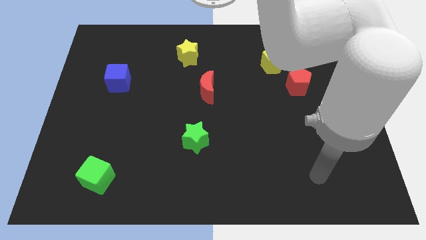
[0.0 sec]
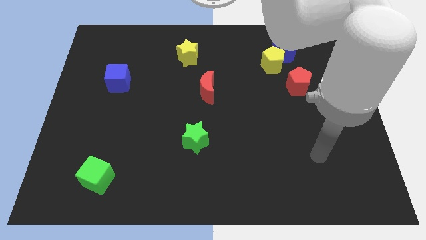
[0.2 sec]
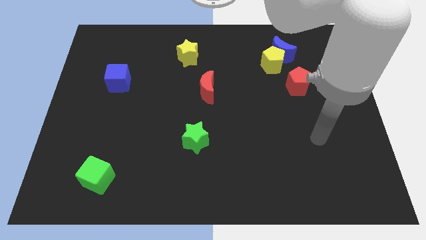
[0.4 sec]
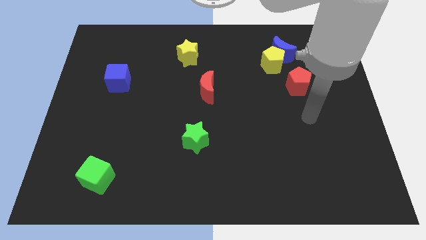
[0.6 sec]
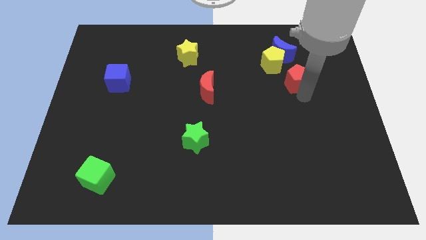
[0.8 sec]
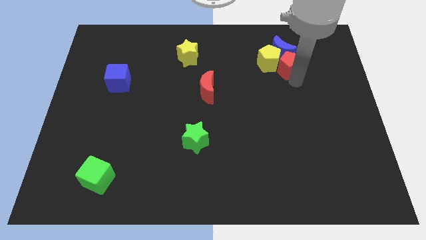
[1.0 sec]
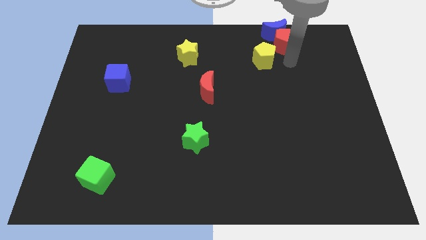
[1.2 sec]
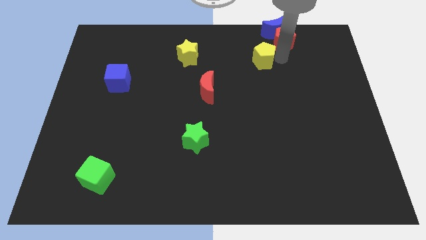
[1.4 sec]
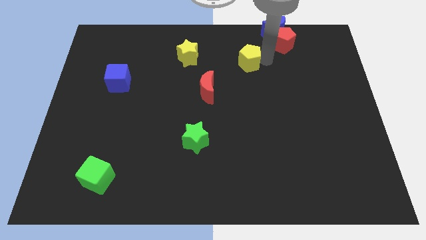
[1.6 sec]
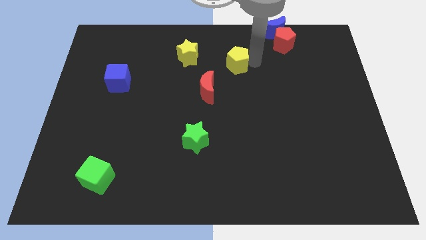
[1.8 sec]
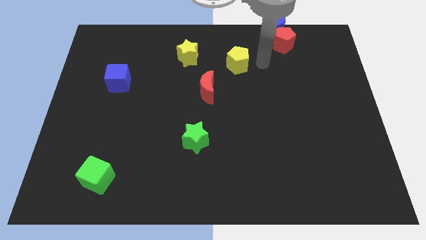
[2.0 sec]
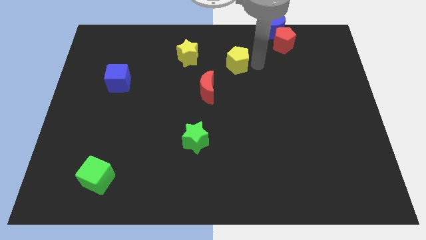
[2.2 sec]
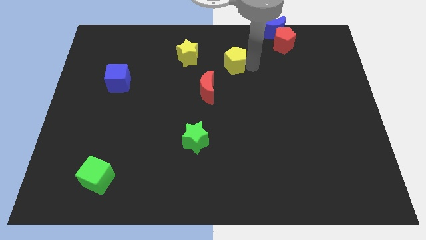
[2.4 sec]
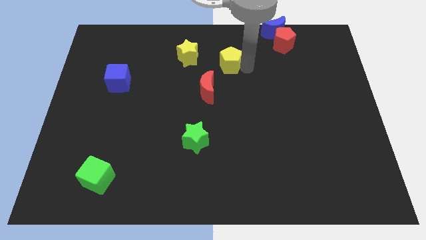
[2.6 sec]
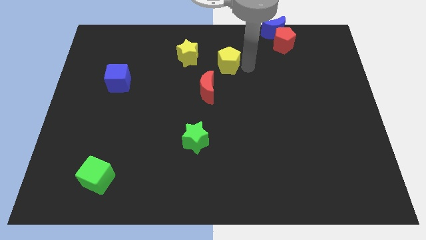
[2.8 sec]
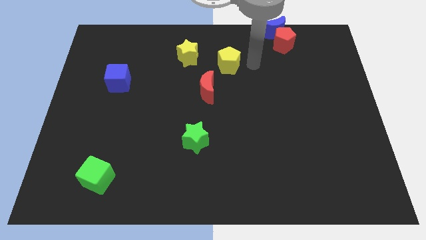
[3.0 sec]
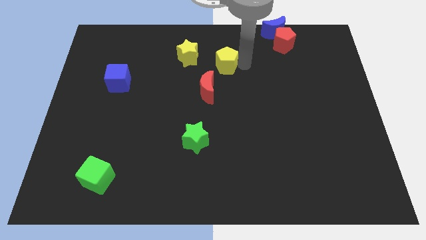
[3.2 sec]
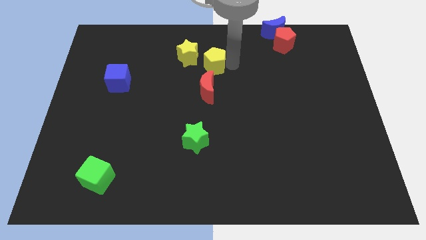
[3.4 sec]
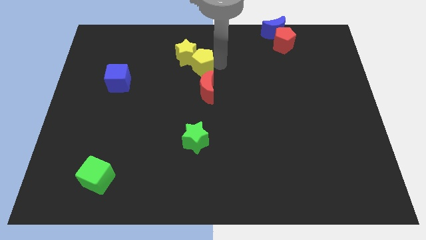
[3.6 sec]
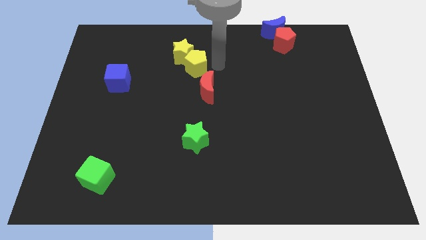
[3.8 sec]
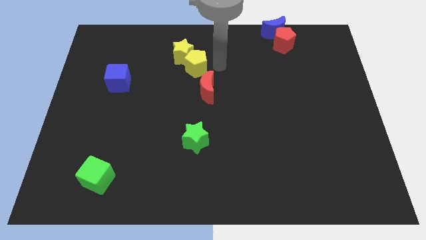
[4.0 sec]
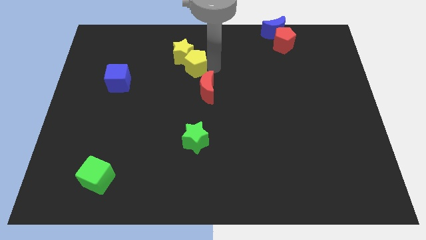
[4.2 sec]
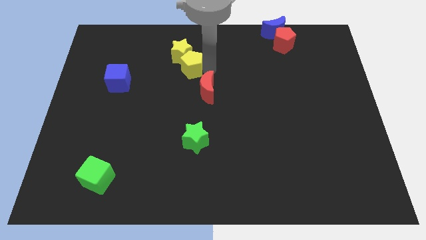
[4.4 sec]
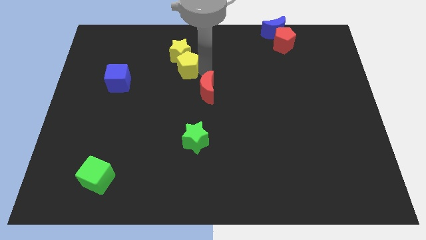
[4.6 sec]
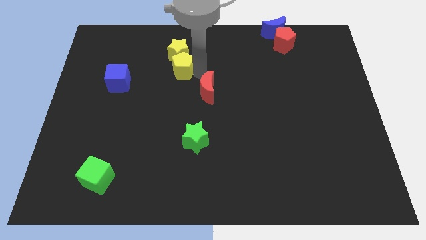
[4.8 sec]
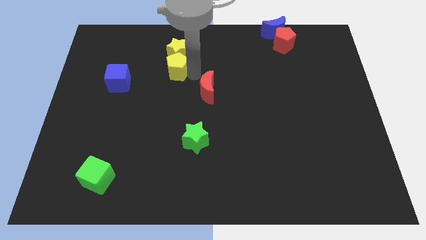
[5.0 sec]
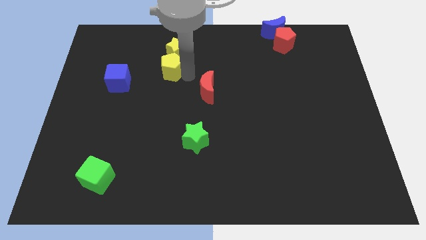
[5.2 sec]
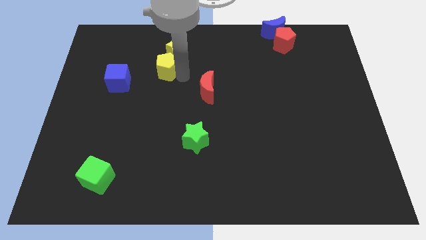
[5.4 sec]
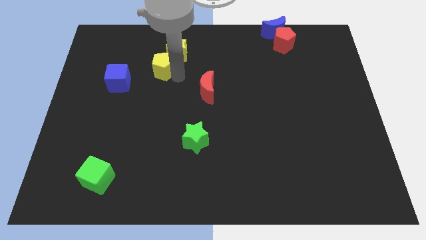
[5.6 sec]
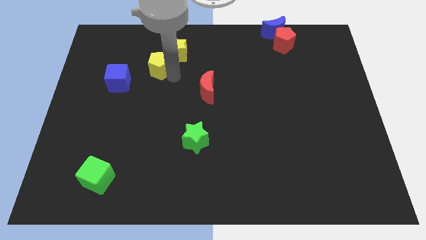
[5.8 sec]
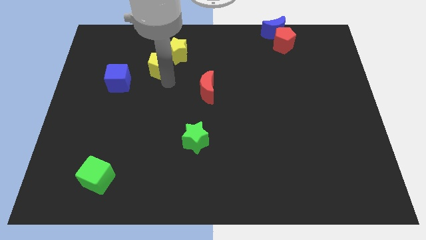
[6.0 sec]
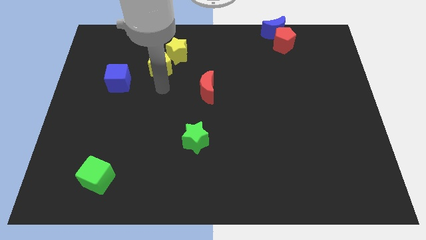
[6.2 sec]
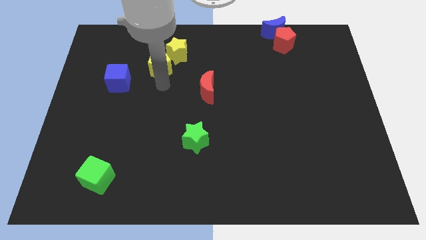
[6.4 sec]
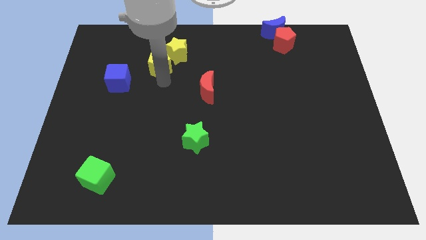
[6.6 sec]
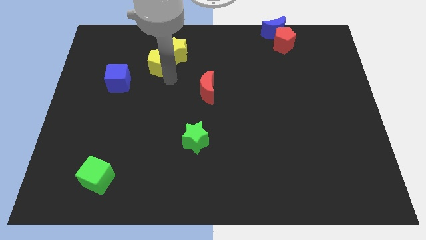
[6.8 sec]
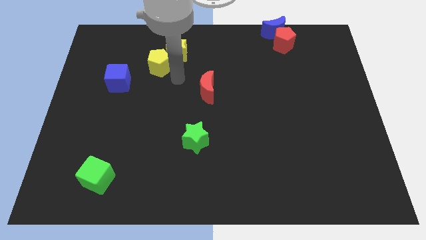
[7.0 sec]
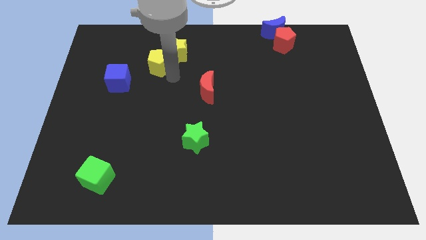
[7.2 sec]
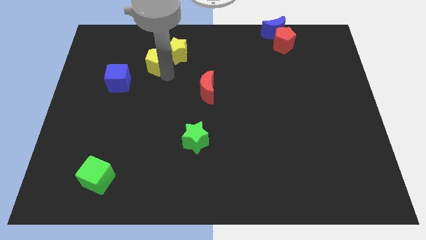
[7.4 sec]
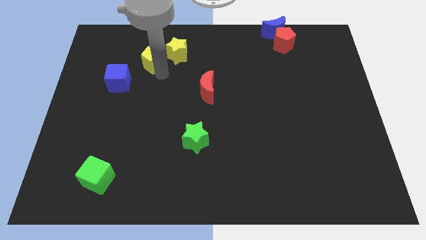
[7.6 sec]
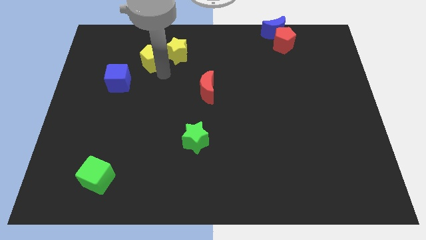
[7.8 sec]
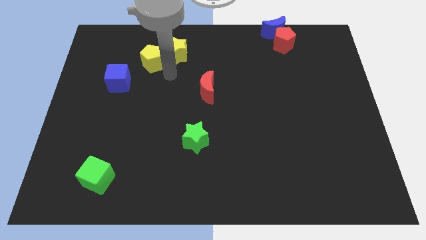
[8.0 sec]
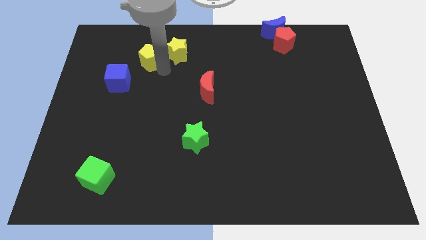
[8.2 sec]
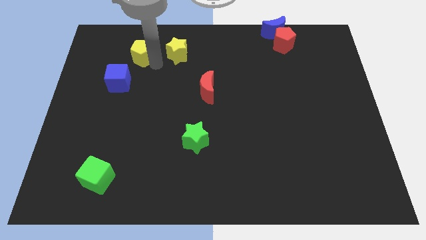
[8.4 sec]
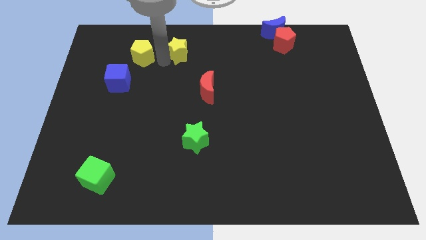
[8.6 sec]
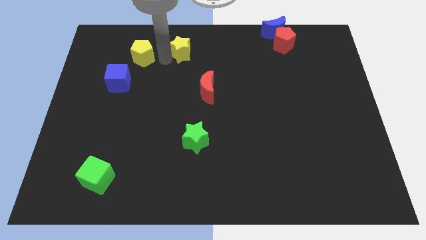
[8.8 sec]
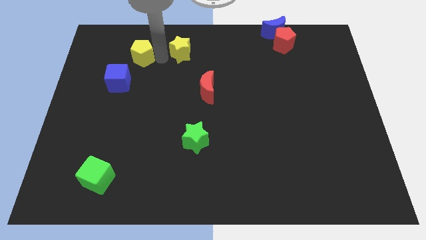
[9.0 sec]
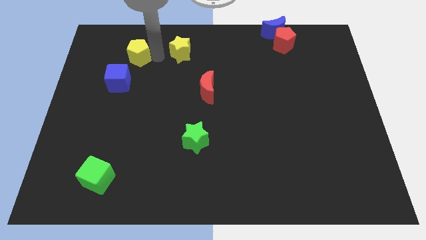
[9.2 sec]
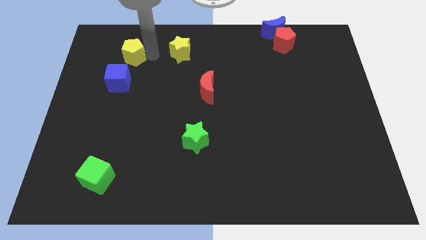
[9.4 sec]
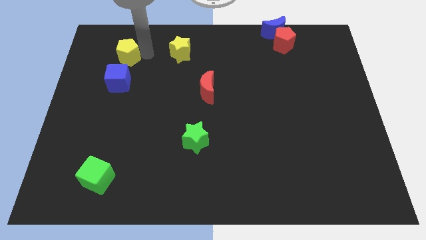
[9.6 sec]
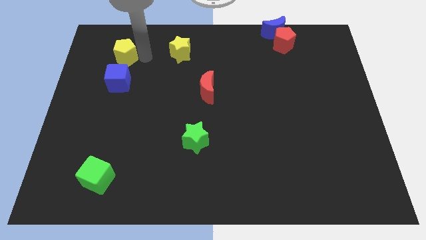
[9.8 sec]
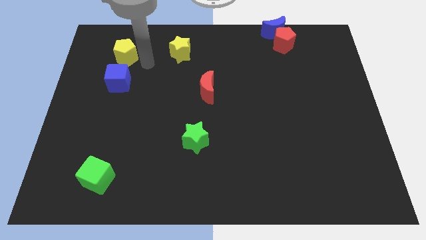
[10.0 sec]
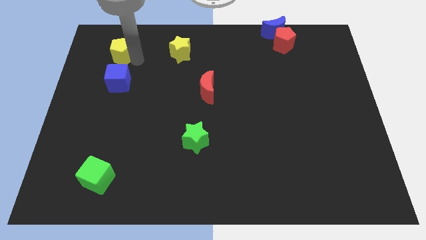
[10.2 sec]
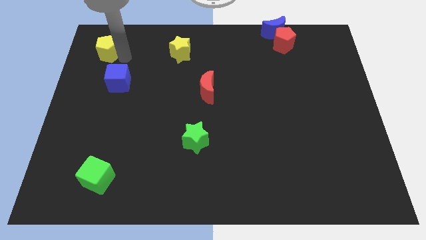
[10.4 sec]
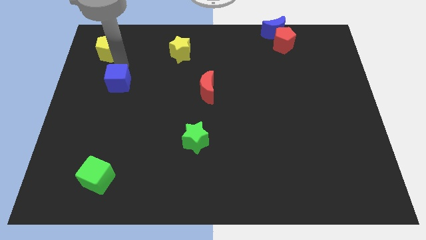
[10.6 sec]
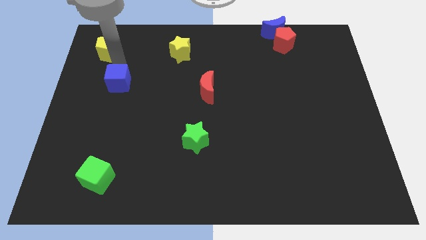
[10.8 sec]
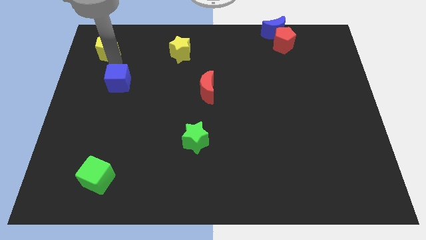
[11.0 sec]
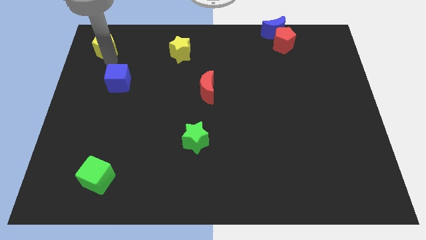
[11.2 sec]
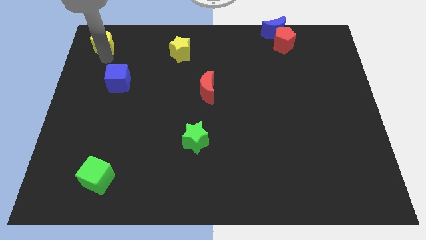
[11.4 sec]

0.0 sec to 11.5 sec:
put the yellow pentagon to the upper left corner

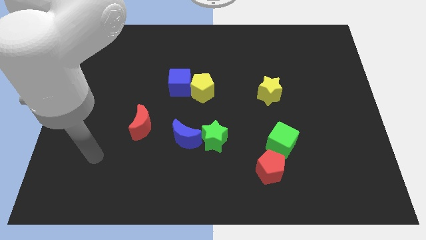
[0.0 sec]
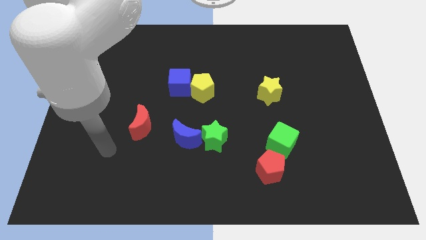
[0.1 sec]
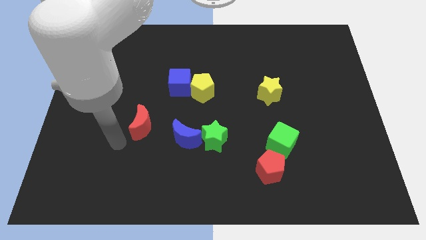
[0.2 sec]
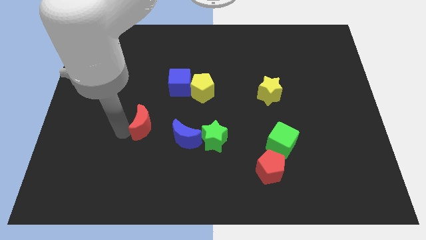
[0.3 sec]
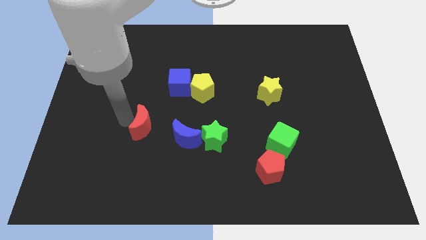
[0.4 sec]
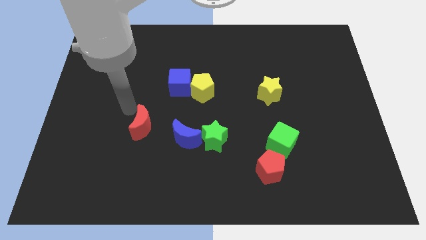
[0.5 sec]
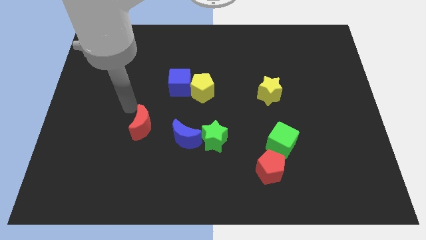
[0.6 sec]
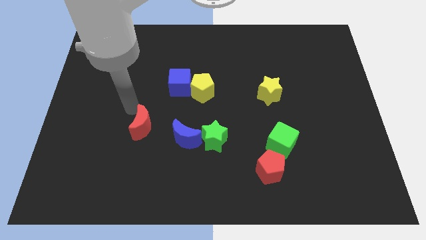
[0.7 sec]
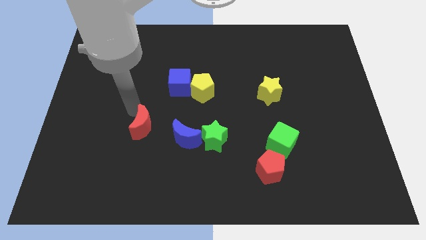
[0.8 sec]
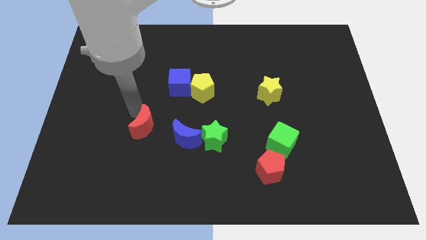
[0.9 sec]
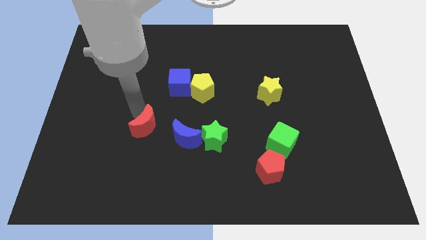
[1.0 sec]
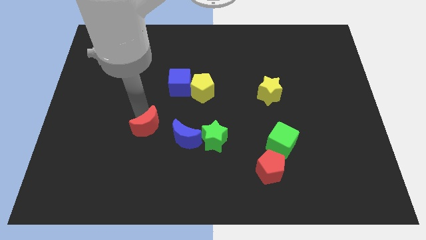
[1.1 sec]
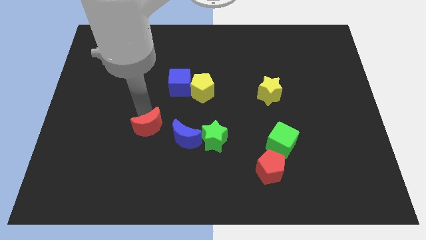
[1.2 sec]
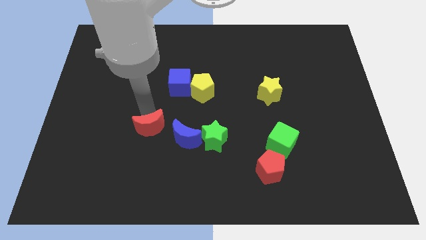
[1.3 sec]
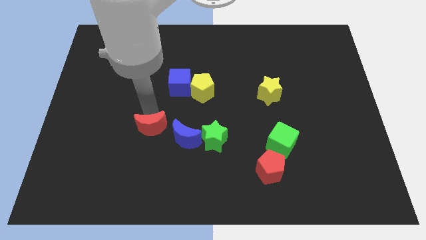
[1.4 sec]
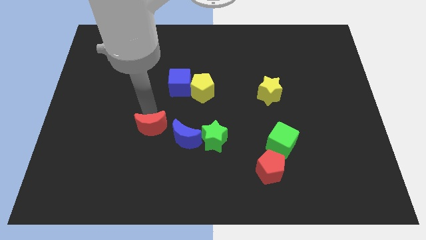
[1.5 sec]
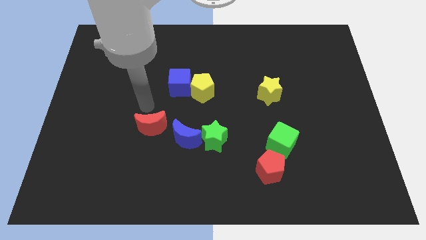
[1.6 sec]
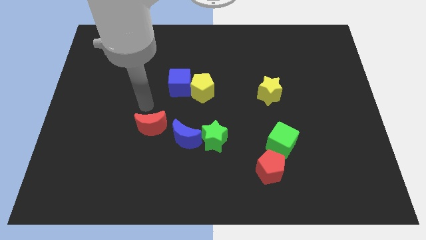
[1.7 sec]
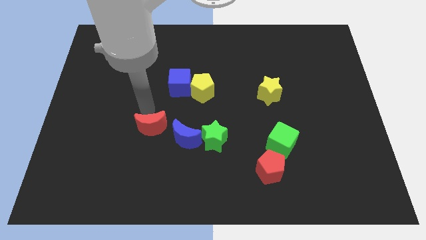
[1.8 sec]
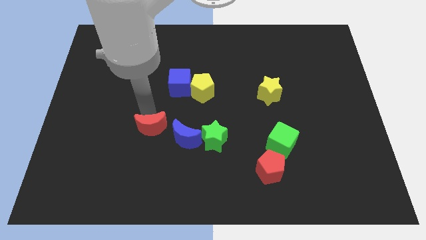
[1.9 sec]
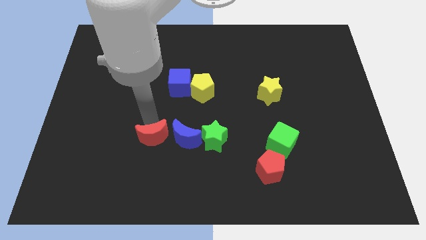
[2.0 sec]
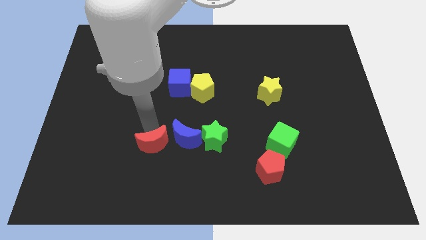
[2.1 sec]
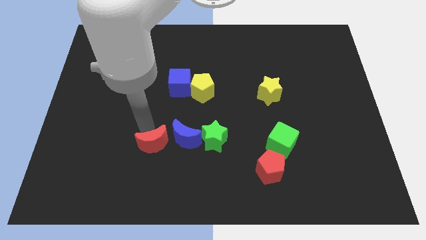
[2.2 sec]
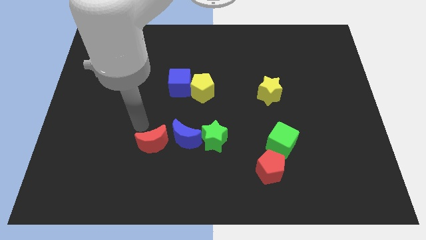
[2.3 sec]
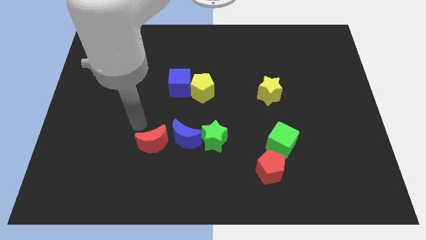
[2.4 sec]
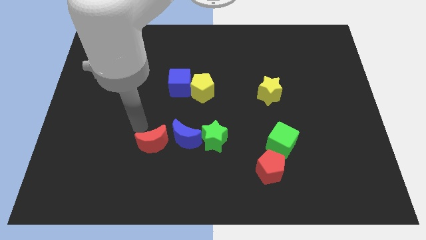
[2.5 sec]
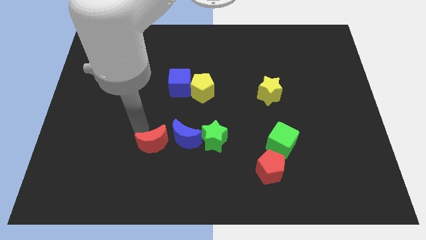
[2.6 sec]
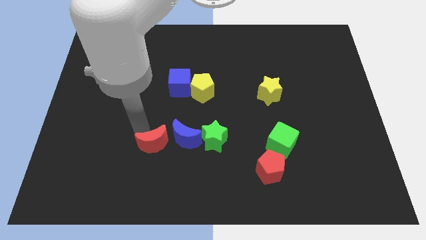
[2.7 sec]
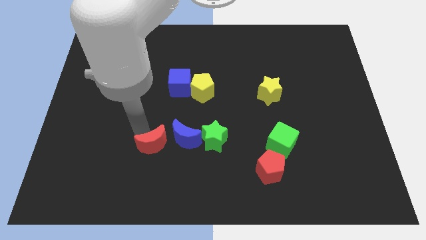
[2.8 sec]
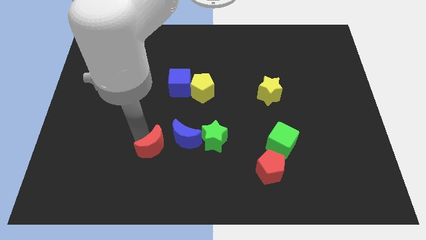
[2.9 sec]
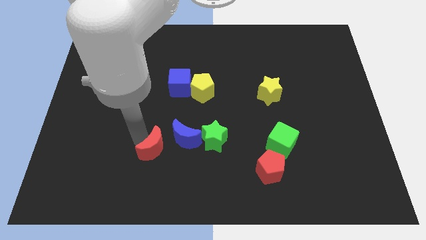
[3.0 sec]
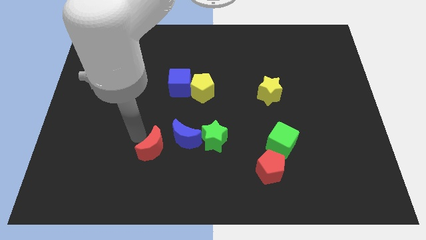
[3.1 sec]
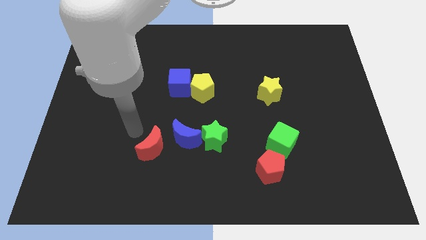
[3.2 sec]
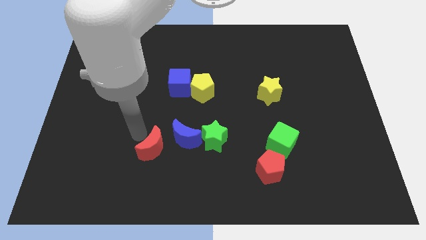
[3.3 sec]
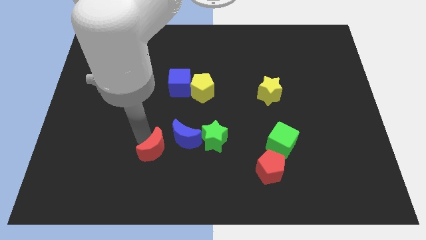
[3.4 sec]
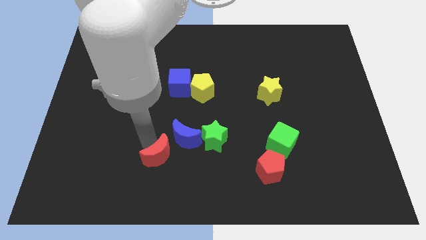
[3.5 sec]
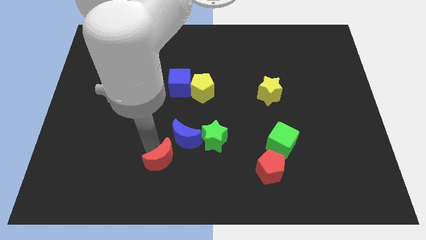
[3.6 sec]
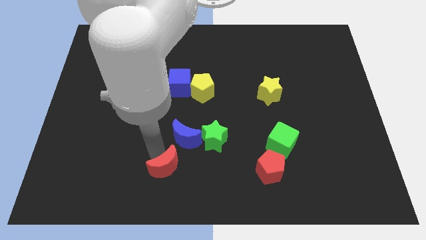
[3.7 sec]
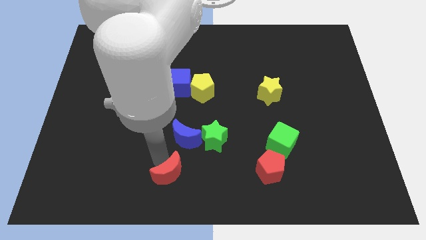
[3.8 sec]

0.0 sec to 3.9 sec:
move the red moon to the bottom side
